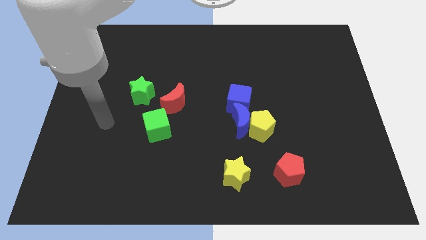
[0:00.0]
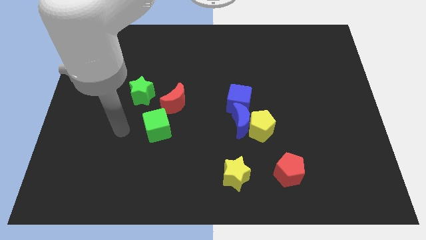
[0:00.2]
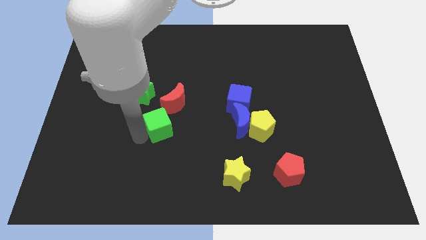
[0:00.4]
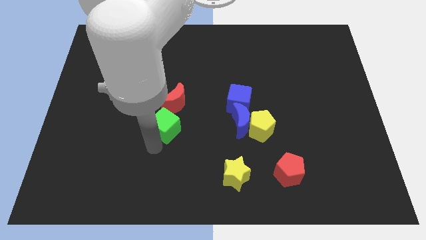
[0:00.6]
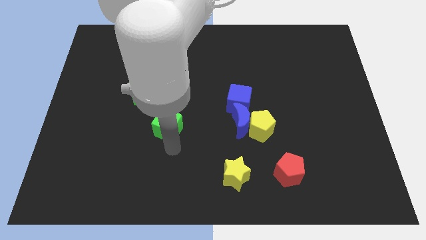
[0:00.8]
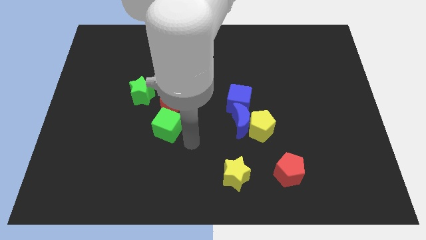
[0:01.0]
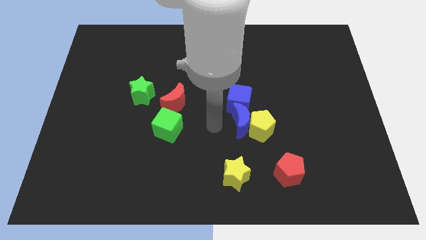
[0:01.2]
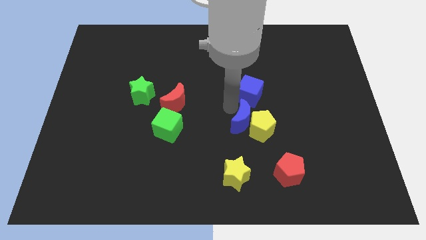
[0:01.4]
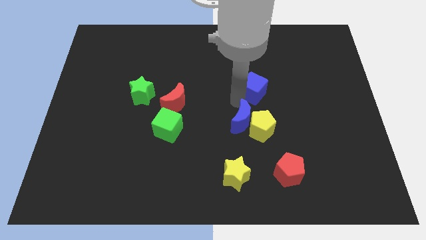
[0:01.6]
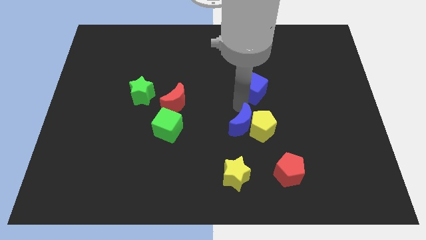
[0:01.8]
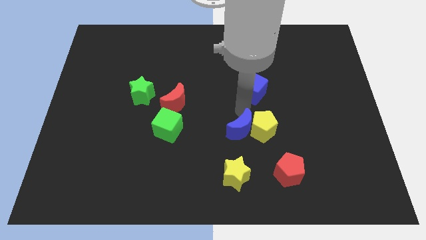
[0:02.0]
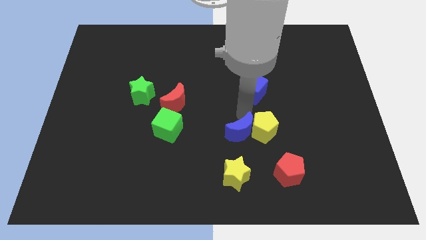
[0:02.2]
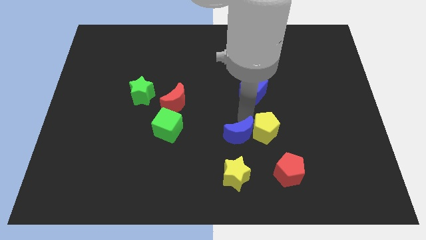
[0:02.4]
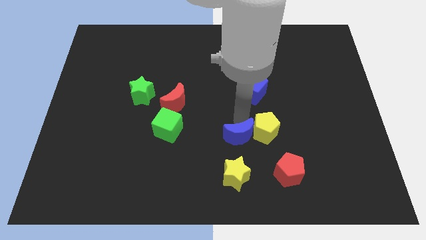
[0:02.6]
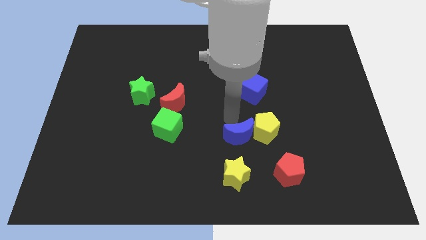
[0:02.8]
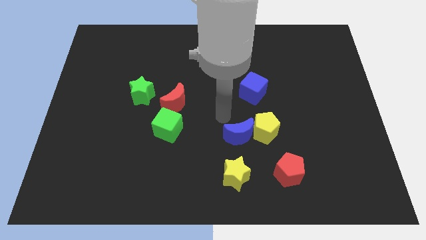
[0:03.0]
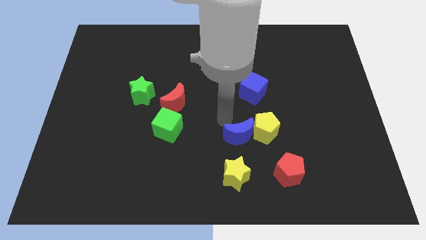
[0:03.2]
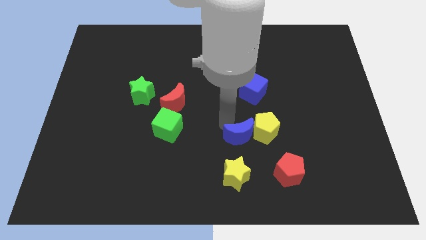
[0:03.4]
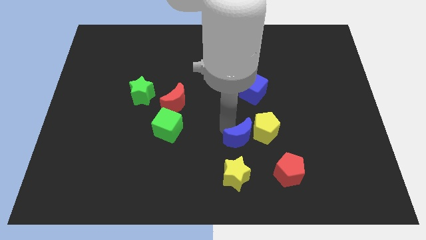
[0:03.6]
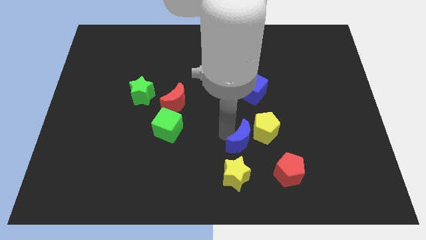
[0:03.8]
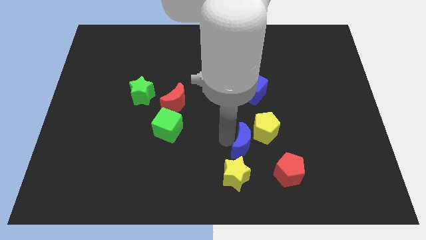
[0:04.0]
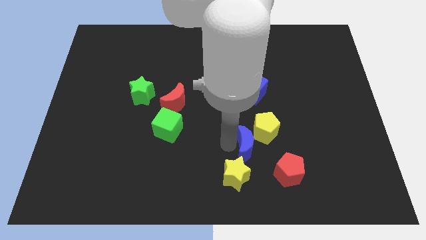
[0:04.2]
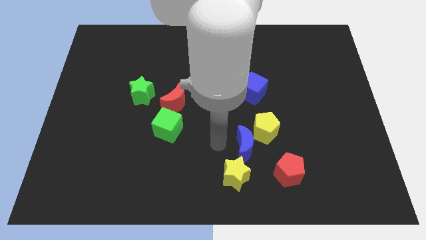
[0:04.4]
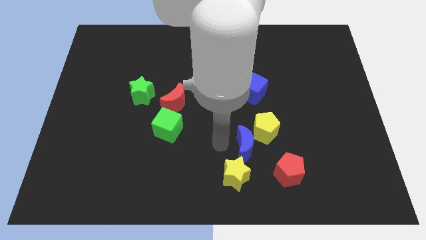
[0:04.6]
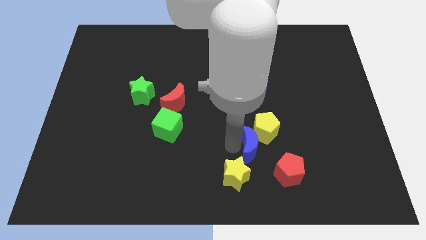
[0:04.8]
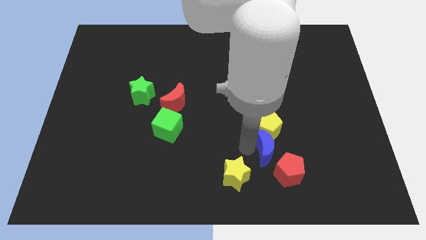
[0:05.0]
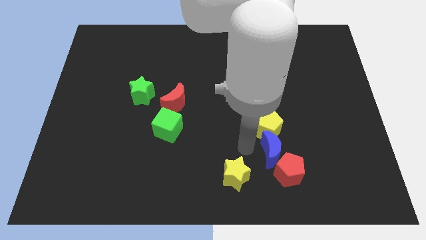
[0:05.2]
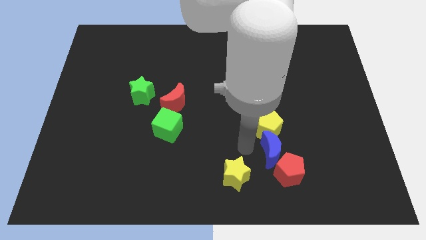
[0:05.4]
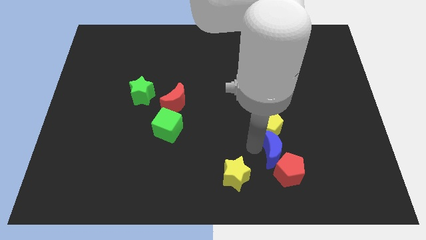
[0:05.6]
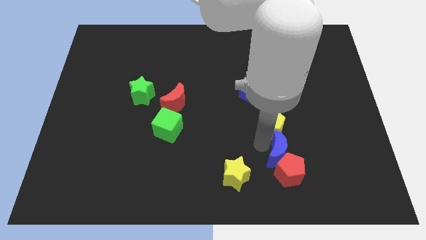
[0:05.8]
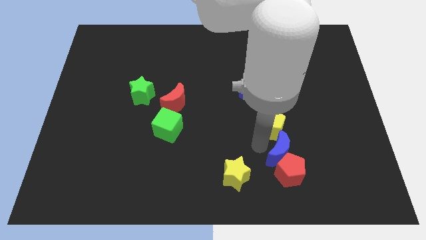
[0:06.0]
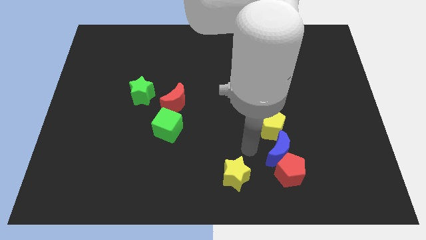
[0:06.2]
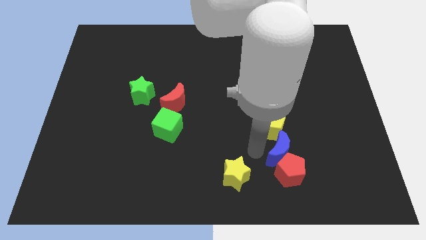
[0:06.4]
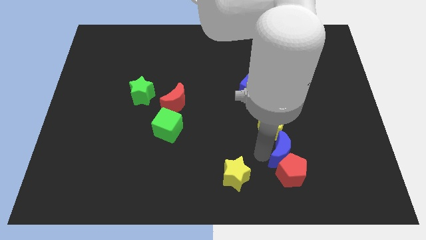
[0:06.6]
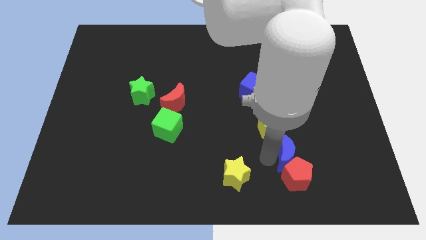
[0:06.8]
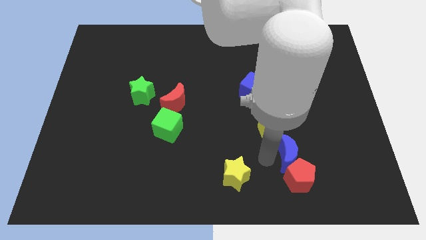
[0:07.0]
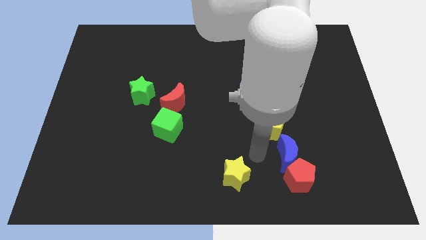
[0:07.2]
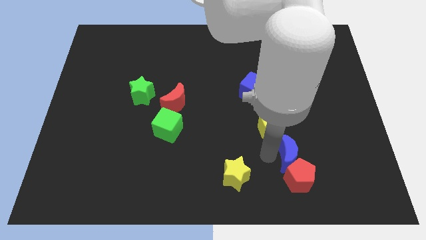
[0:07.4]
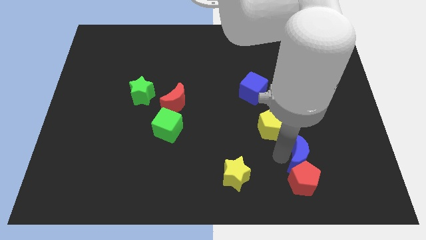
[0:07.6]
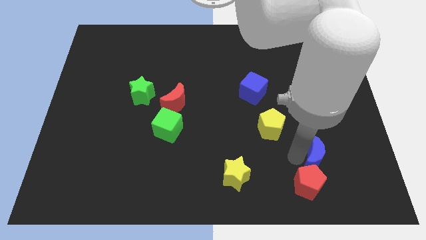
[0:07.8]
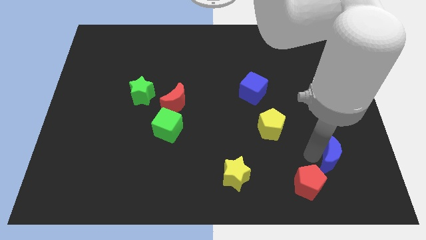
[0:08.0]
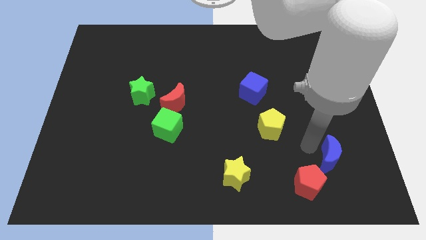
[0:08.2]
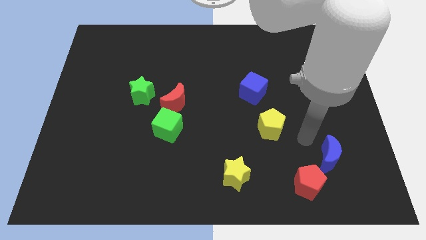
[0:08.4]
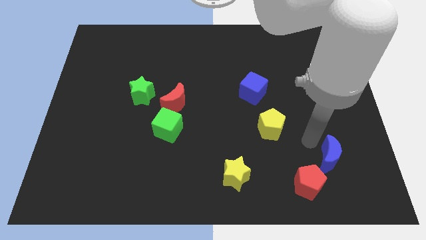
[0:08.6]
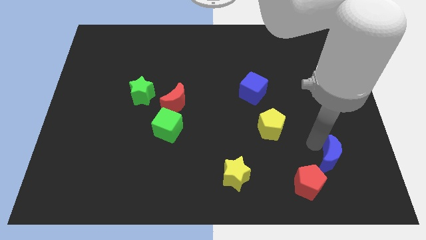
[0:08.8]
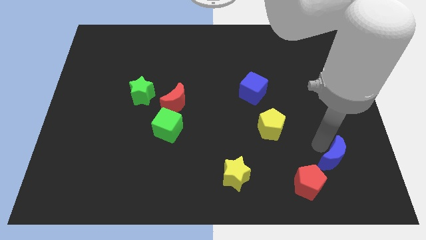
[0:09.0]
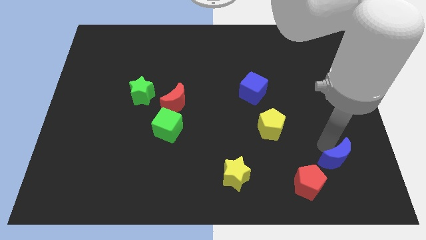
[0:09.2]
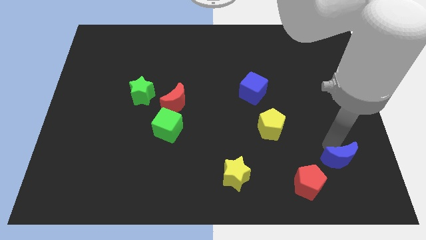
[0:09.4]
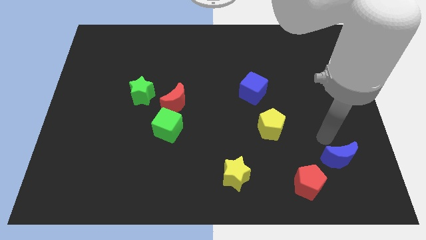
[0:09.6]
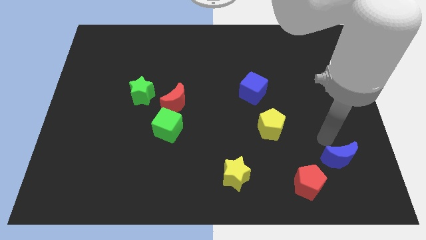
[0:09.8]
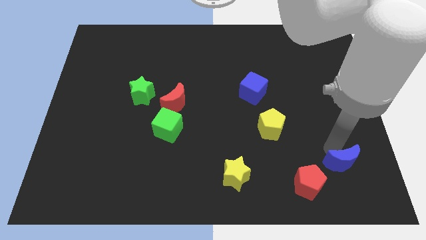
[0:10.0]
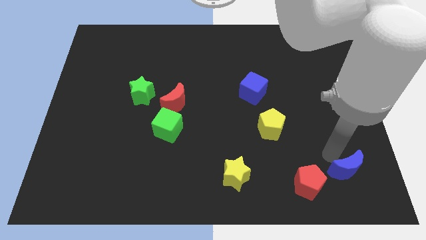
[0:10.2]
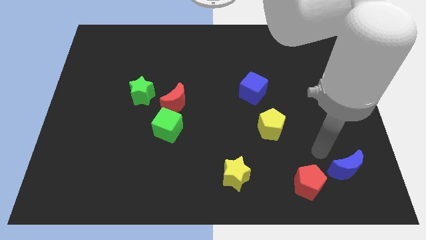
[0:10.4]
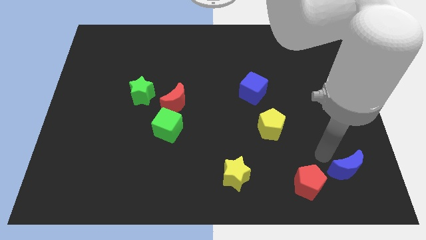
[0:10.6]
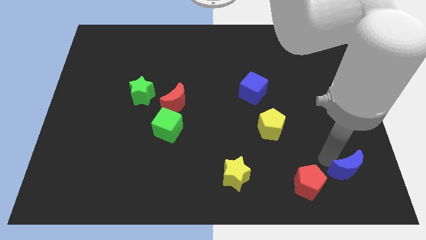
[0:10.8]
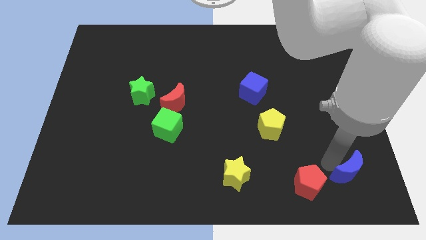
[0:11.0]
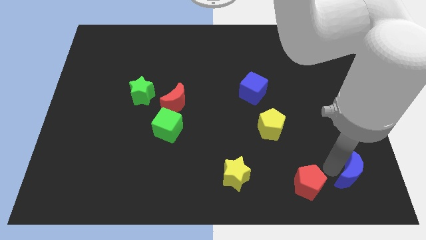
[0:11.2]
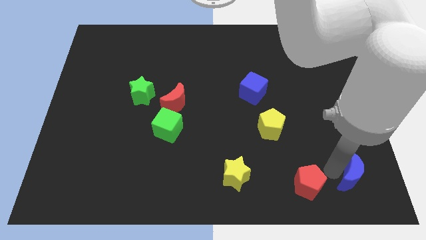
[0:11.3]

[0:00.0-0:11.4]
slide the blue moon to the lower right corner

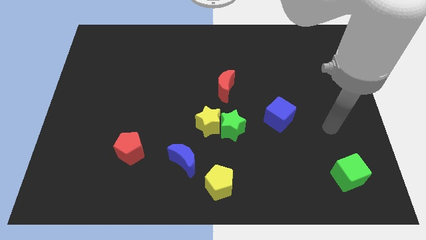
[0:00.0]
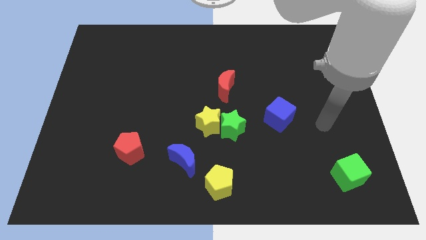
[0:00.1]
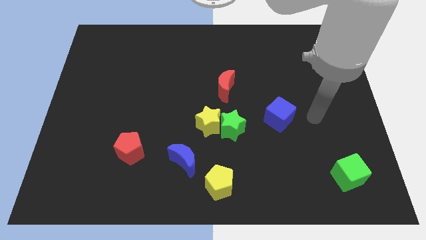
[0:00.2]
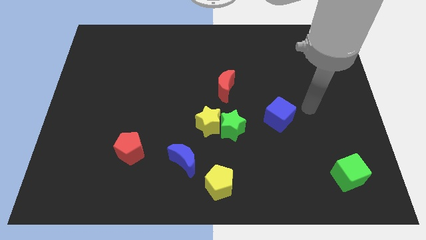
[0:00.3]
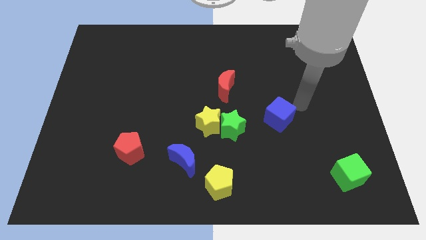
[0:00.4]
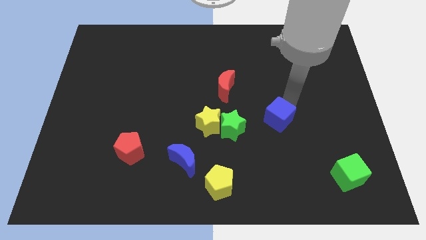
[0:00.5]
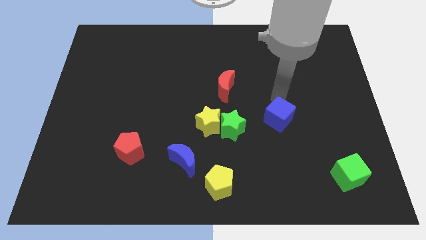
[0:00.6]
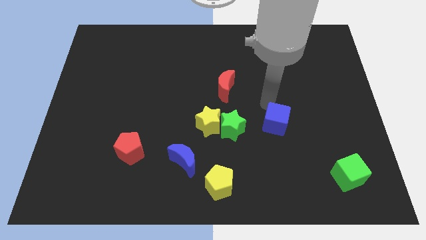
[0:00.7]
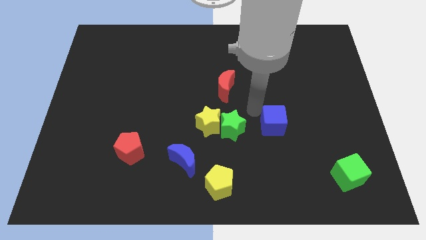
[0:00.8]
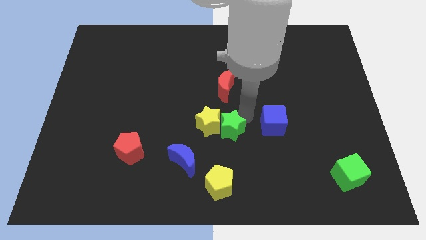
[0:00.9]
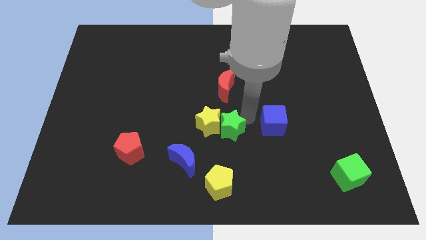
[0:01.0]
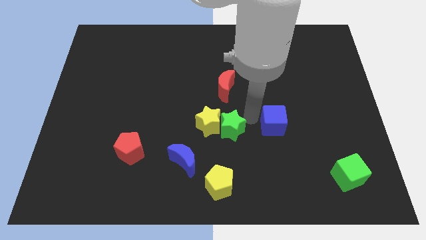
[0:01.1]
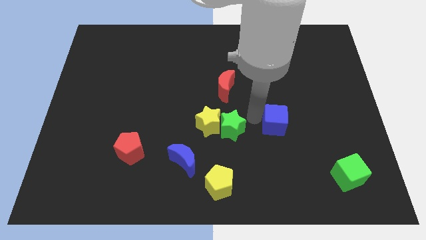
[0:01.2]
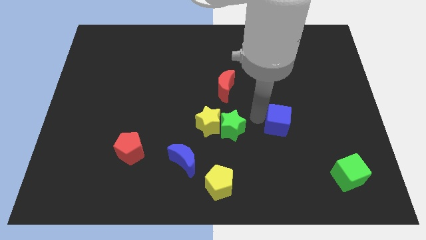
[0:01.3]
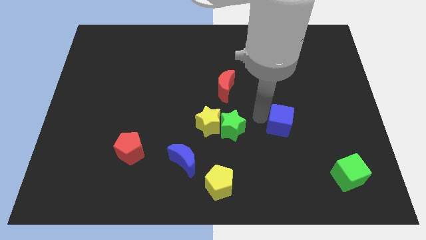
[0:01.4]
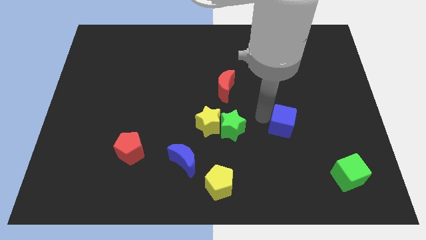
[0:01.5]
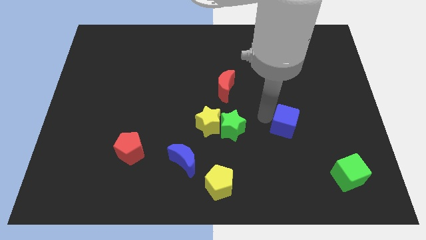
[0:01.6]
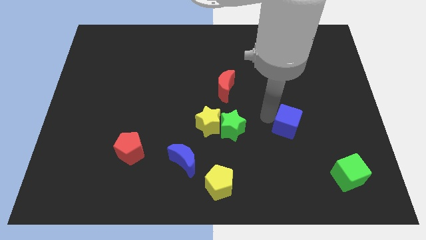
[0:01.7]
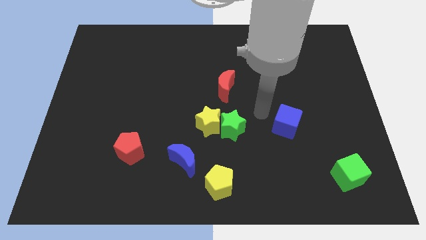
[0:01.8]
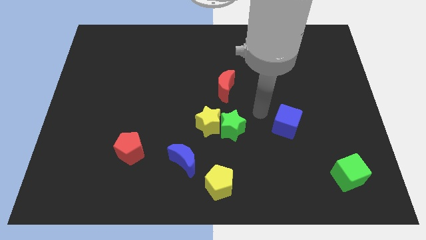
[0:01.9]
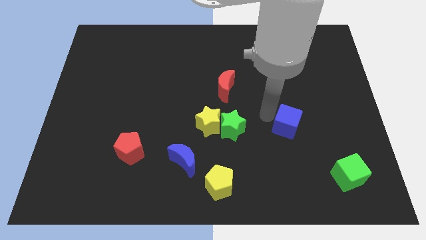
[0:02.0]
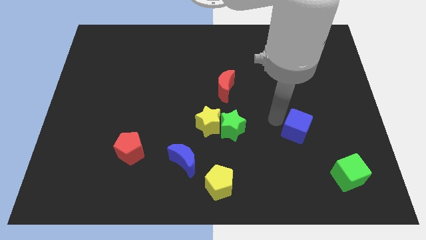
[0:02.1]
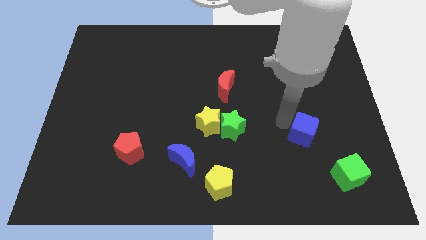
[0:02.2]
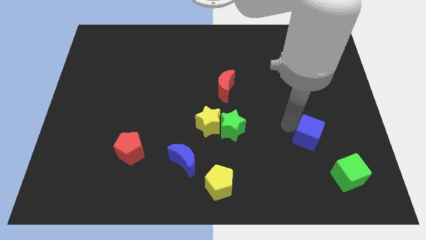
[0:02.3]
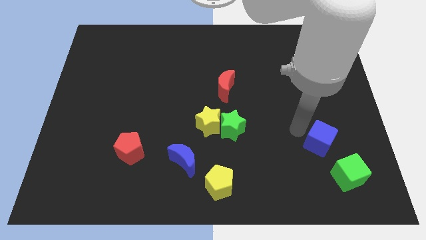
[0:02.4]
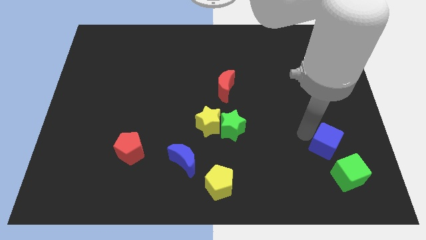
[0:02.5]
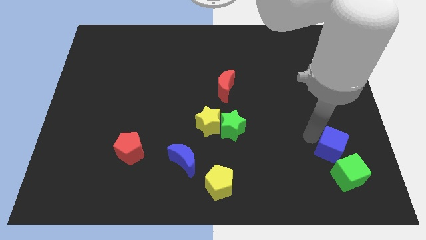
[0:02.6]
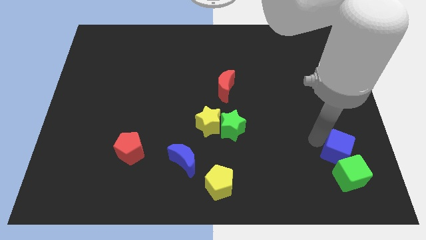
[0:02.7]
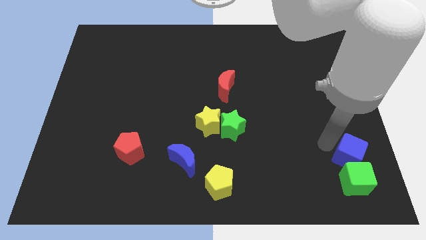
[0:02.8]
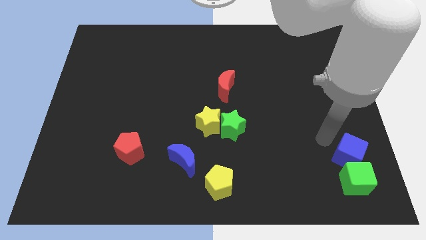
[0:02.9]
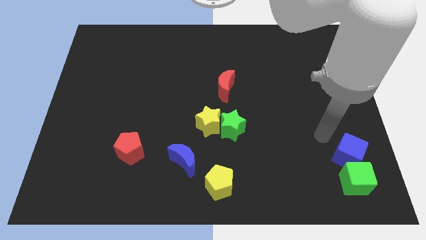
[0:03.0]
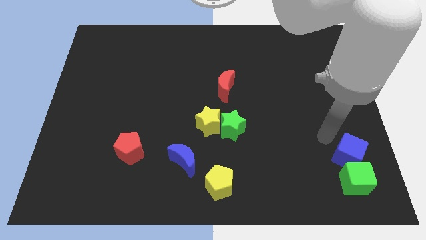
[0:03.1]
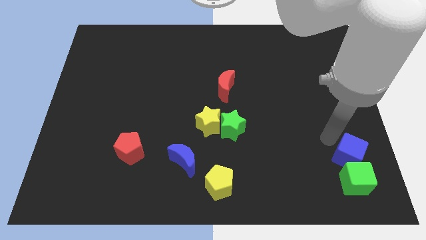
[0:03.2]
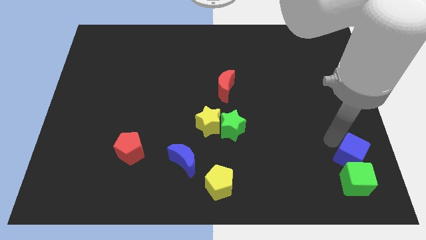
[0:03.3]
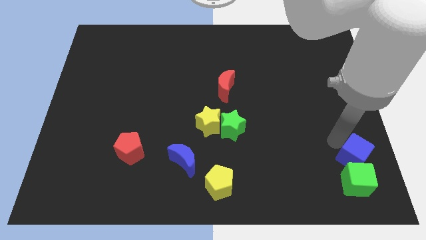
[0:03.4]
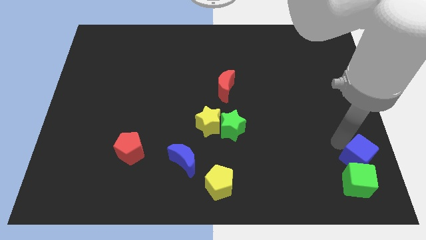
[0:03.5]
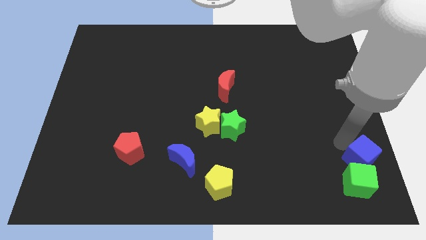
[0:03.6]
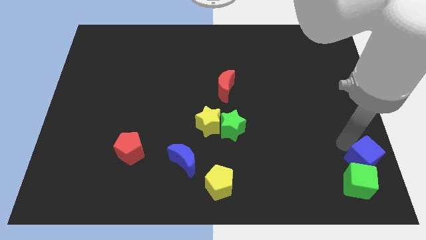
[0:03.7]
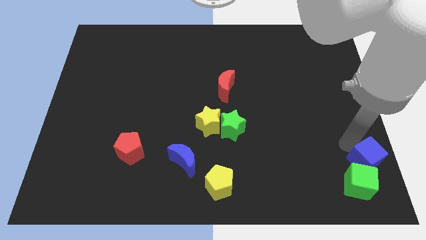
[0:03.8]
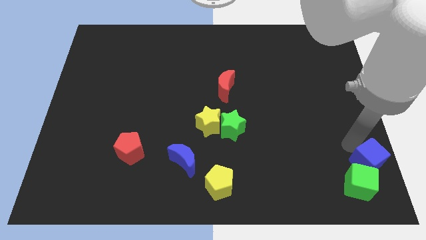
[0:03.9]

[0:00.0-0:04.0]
slide the blue cube to the bottom right
